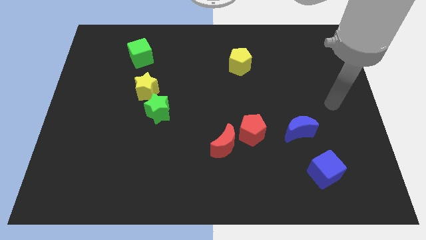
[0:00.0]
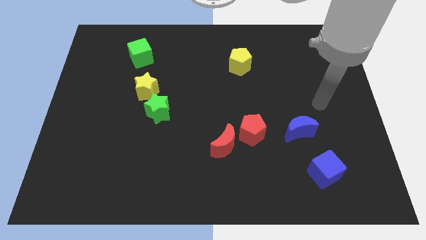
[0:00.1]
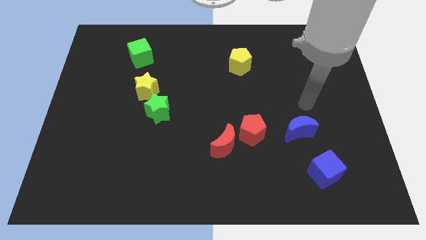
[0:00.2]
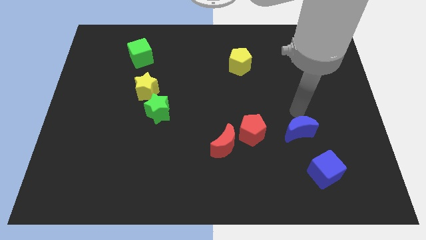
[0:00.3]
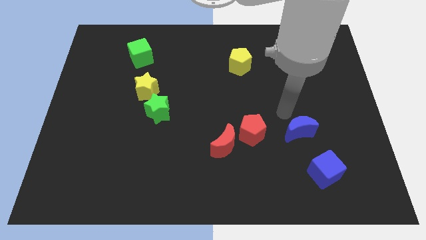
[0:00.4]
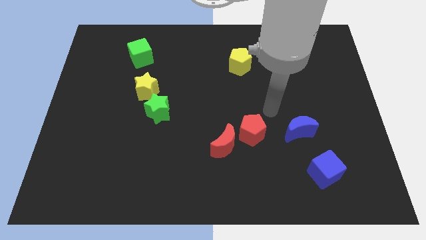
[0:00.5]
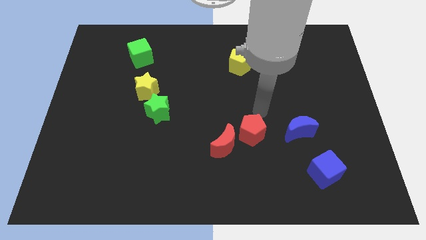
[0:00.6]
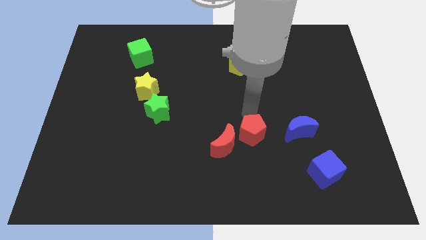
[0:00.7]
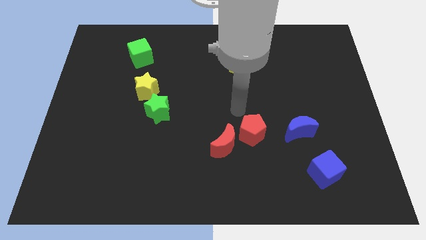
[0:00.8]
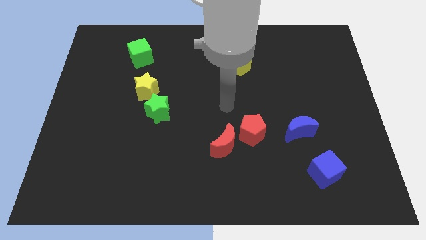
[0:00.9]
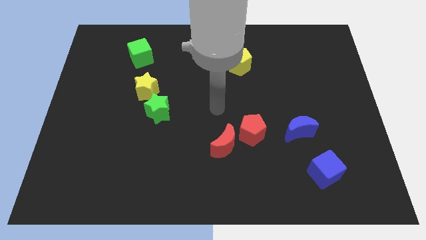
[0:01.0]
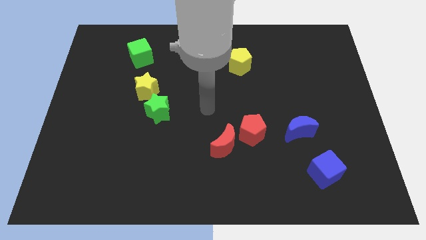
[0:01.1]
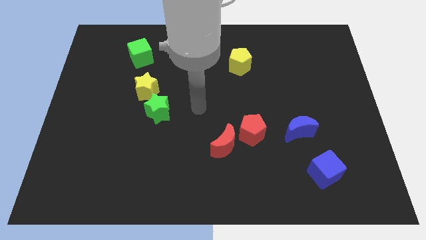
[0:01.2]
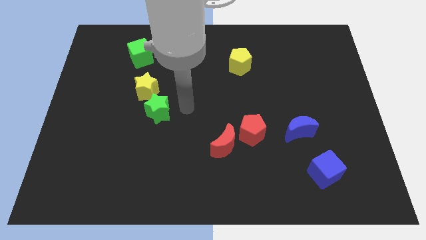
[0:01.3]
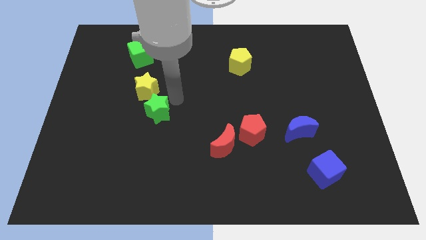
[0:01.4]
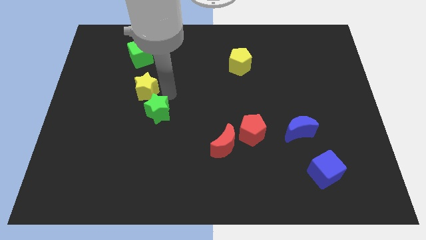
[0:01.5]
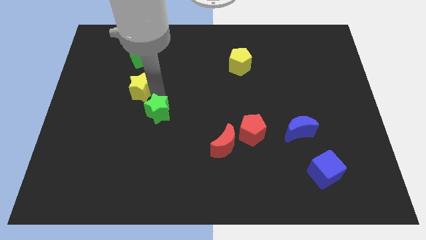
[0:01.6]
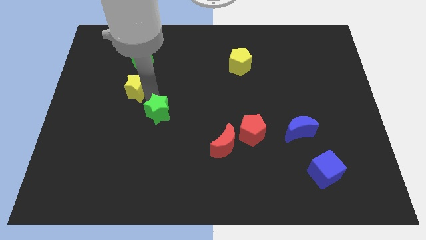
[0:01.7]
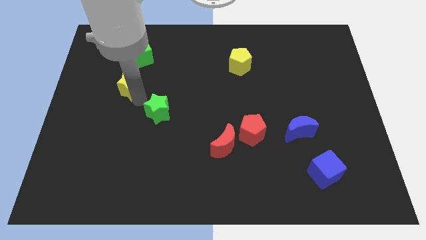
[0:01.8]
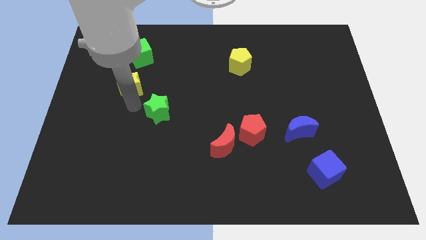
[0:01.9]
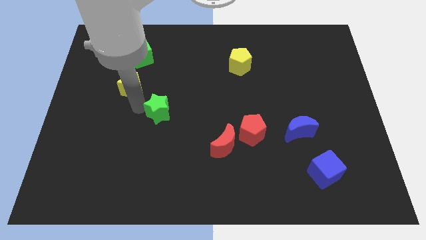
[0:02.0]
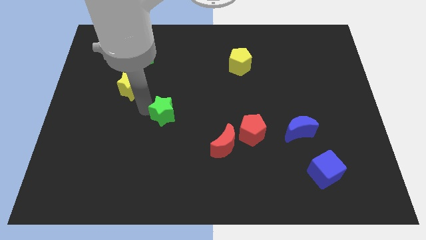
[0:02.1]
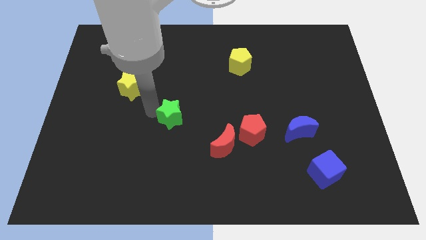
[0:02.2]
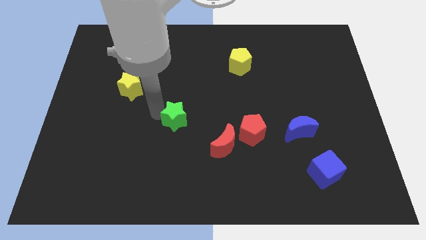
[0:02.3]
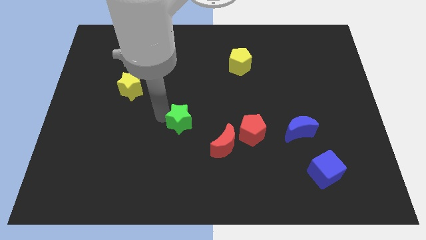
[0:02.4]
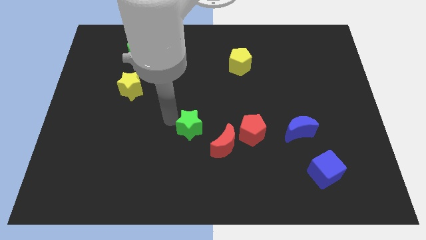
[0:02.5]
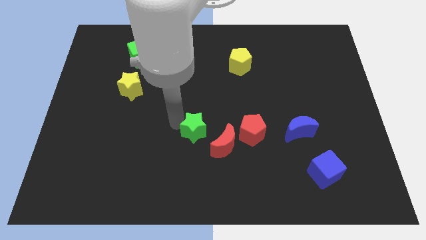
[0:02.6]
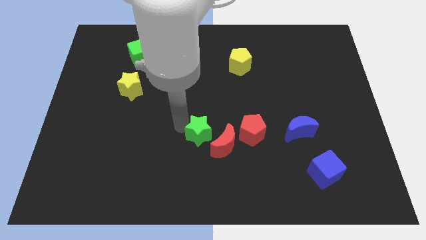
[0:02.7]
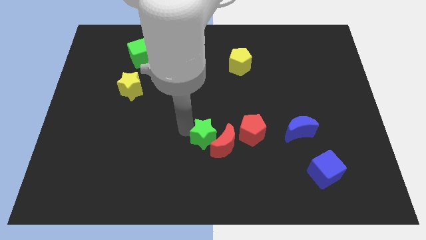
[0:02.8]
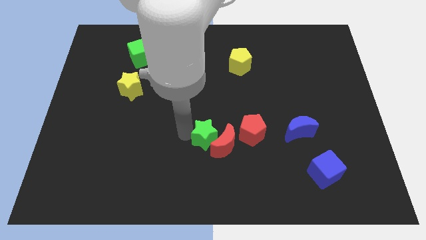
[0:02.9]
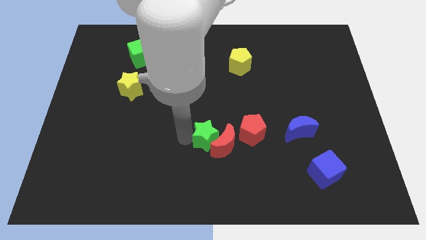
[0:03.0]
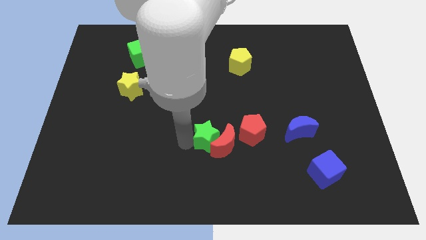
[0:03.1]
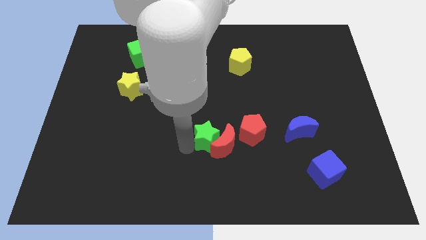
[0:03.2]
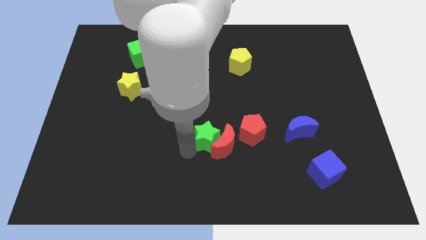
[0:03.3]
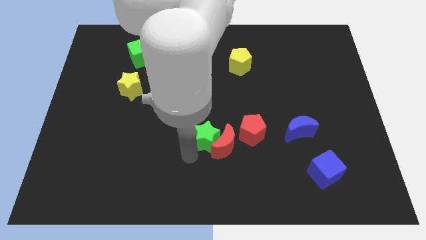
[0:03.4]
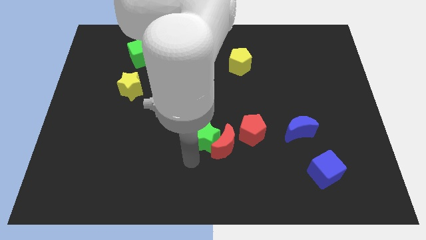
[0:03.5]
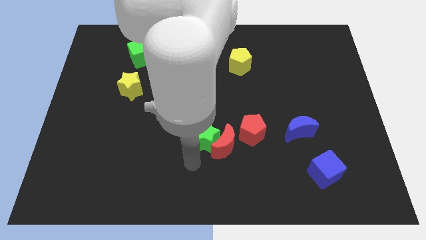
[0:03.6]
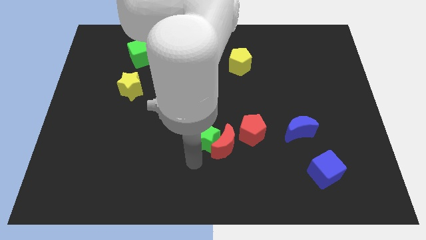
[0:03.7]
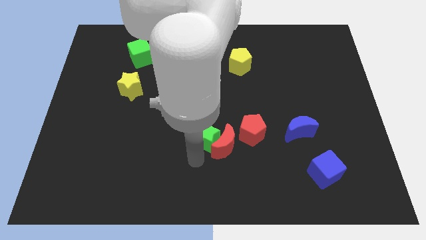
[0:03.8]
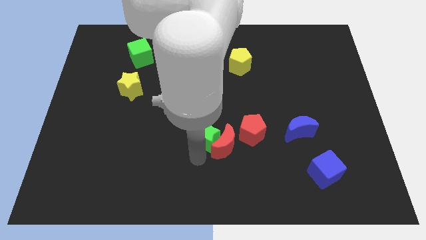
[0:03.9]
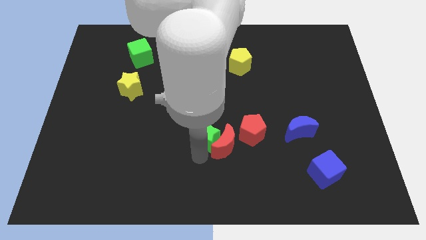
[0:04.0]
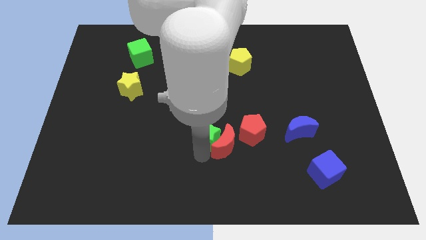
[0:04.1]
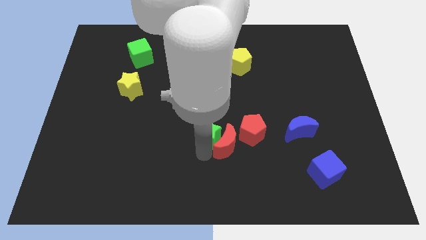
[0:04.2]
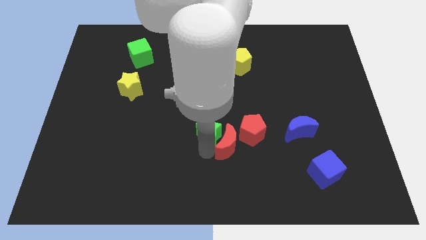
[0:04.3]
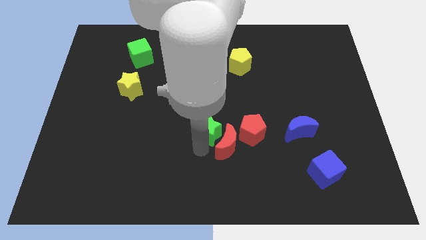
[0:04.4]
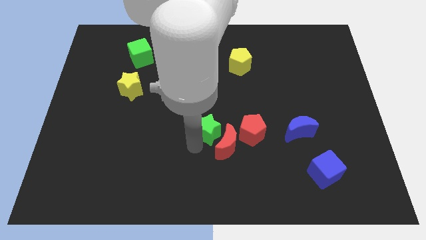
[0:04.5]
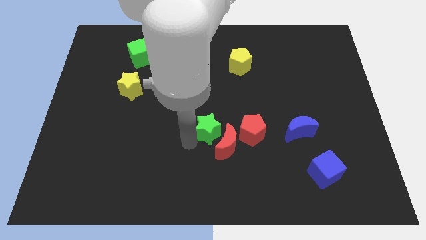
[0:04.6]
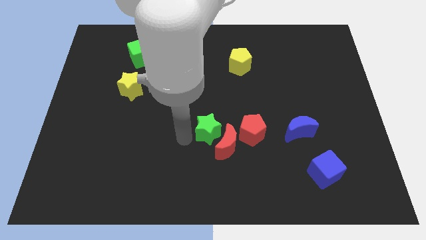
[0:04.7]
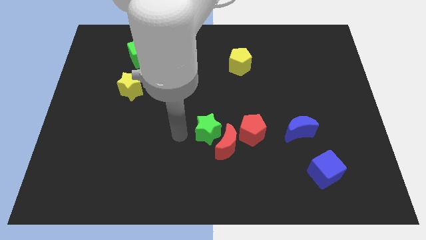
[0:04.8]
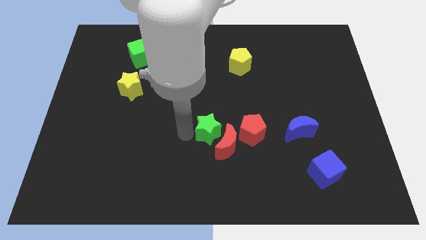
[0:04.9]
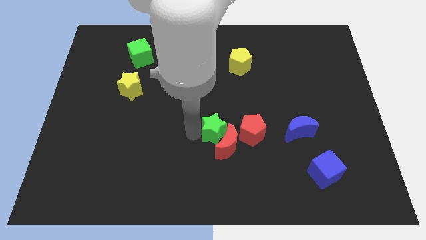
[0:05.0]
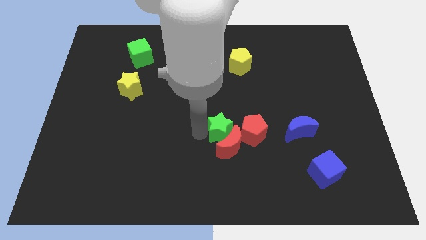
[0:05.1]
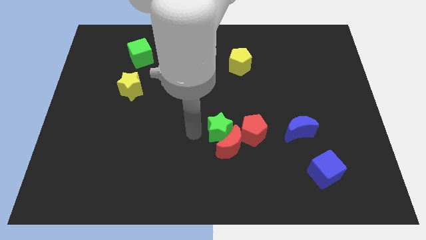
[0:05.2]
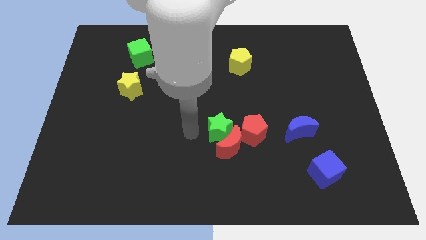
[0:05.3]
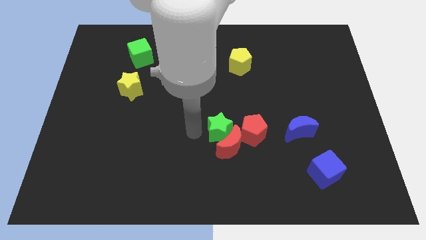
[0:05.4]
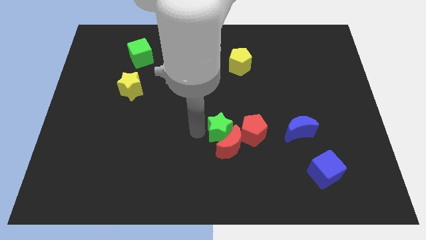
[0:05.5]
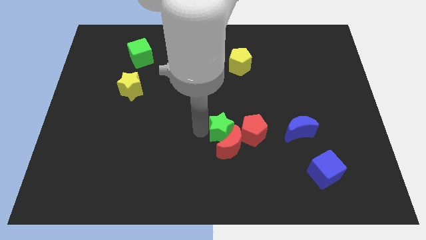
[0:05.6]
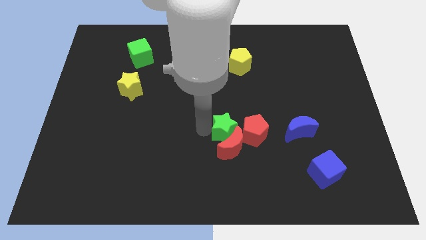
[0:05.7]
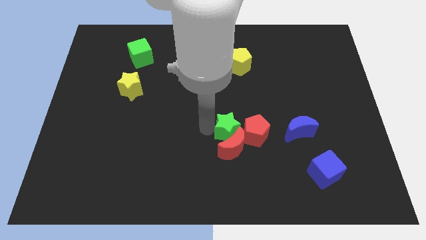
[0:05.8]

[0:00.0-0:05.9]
move the green star to the left side of the blue moon

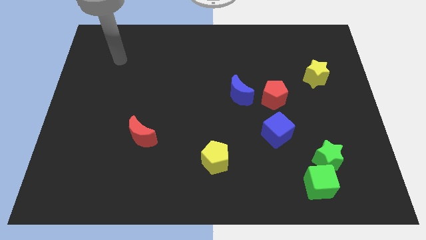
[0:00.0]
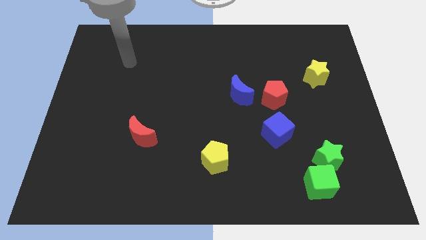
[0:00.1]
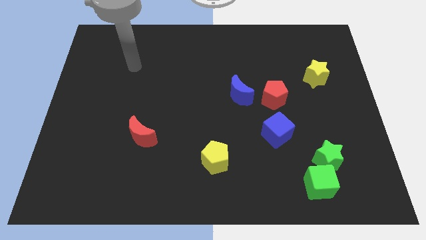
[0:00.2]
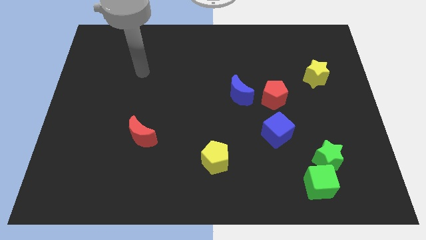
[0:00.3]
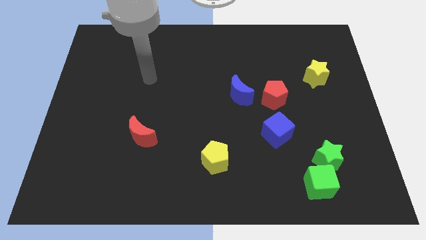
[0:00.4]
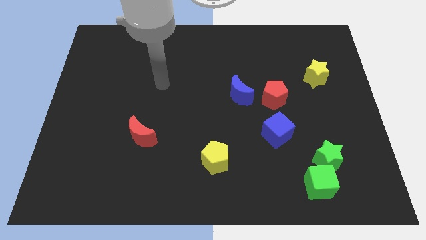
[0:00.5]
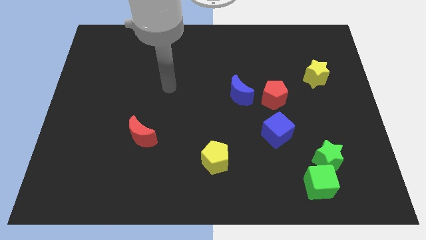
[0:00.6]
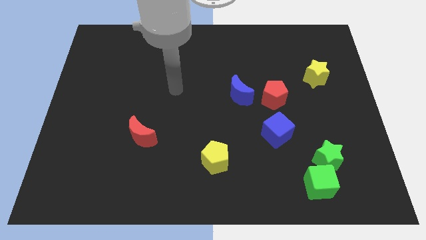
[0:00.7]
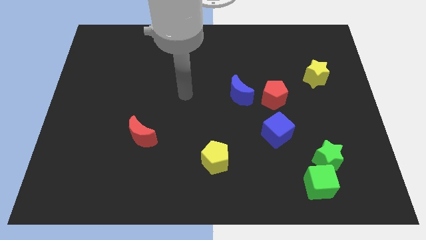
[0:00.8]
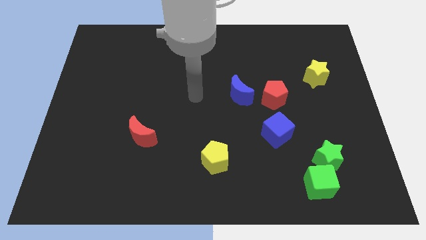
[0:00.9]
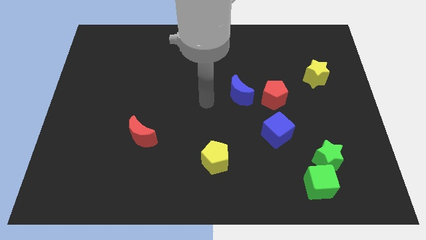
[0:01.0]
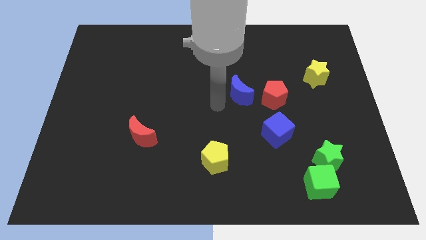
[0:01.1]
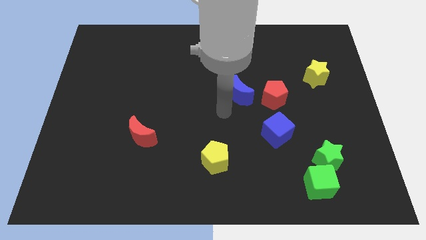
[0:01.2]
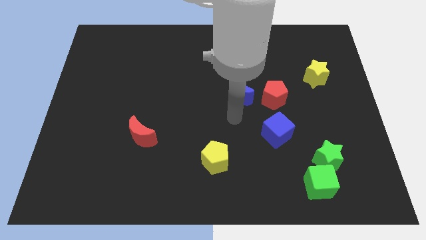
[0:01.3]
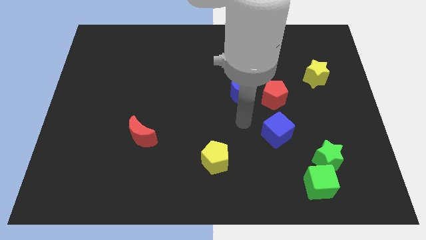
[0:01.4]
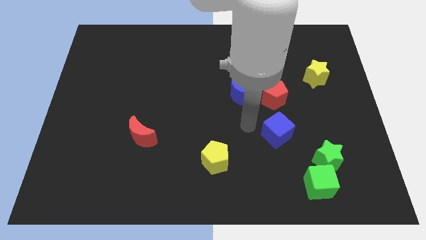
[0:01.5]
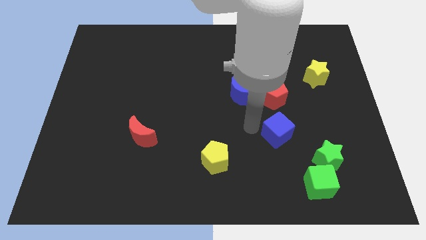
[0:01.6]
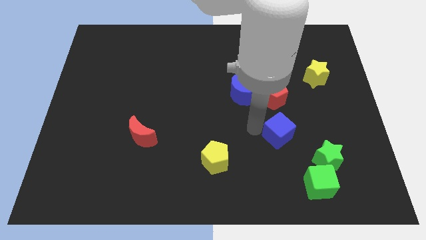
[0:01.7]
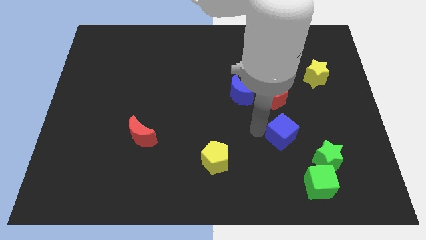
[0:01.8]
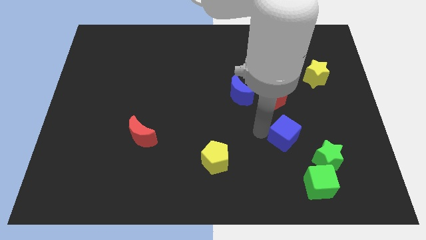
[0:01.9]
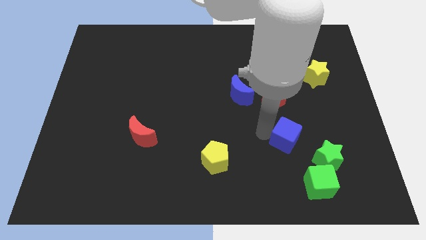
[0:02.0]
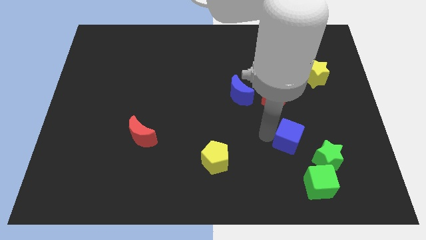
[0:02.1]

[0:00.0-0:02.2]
push the blue cube above the green cube
